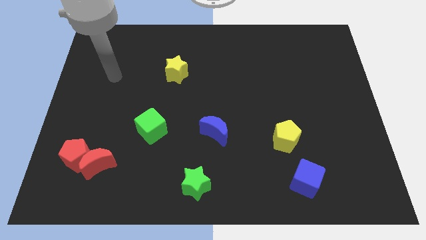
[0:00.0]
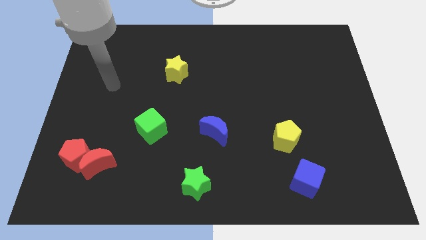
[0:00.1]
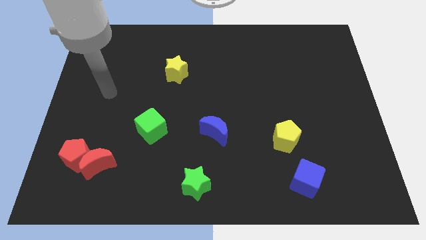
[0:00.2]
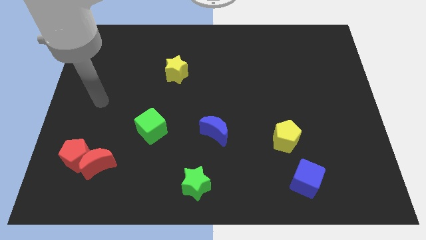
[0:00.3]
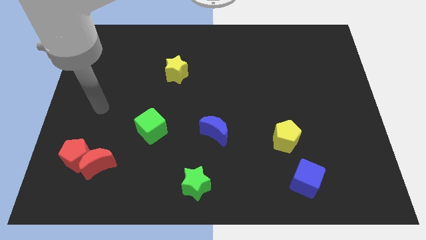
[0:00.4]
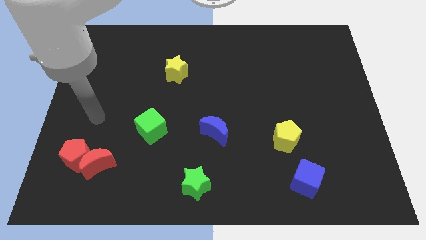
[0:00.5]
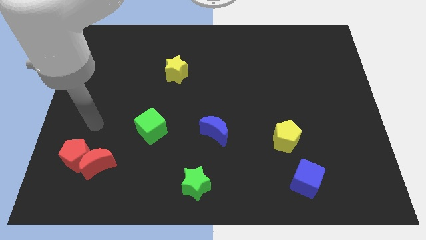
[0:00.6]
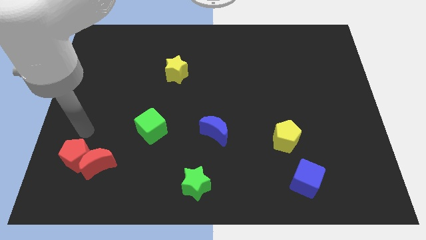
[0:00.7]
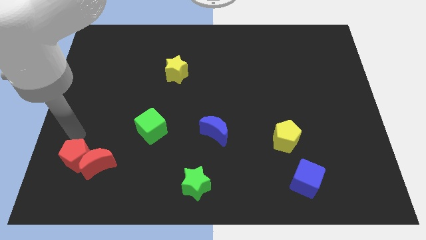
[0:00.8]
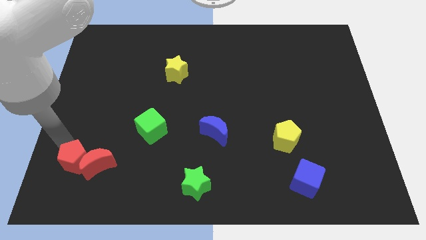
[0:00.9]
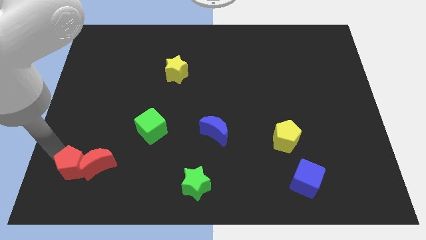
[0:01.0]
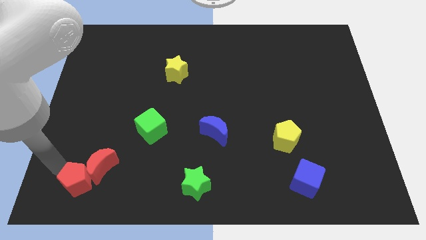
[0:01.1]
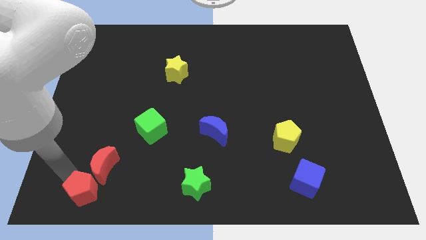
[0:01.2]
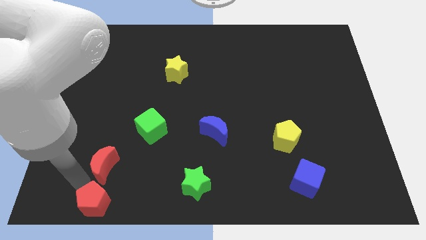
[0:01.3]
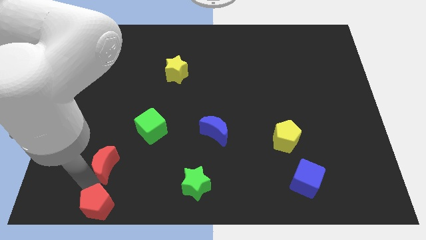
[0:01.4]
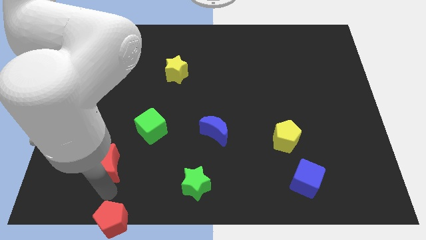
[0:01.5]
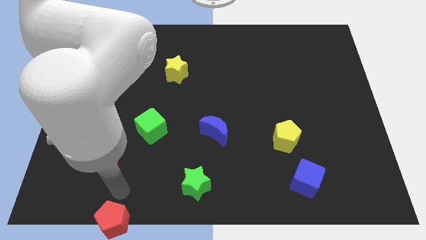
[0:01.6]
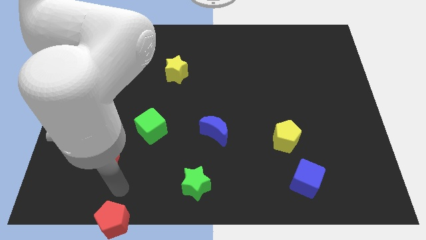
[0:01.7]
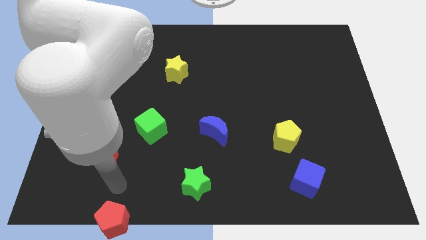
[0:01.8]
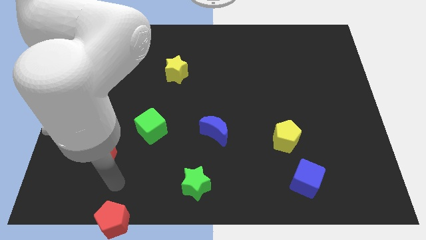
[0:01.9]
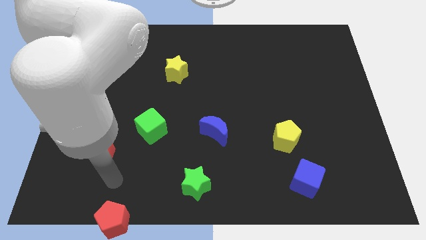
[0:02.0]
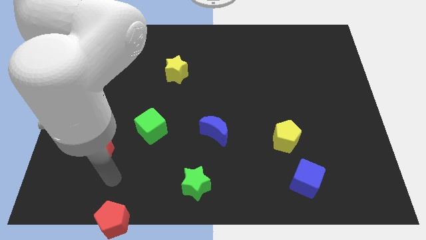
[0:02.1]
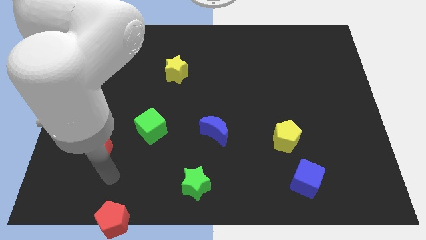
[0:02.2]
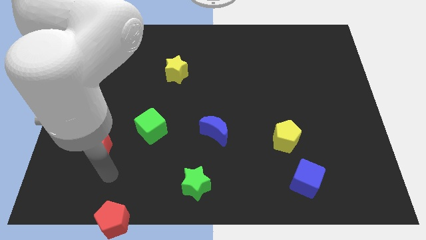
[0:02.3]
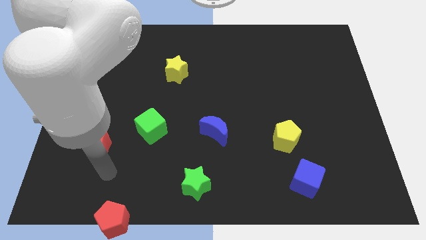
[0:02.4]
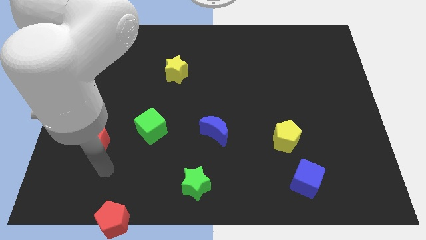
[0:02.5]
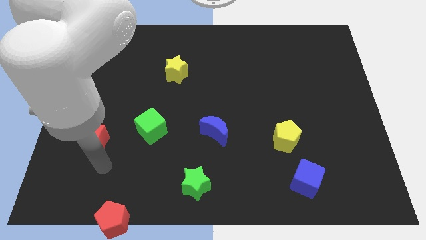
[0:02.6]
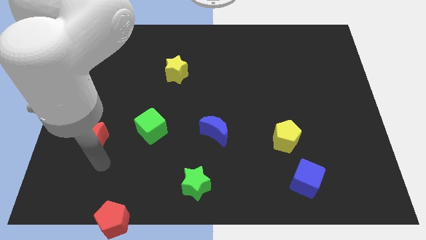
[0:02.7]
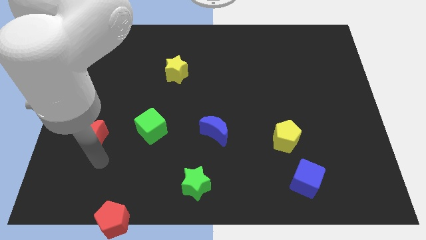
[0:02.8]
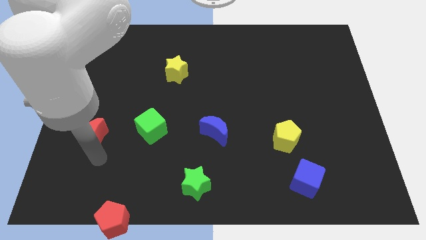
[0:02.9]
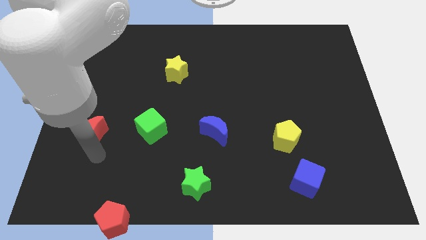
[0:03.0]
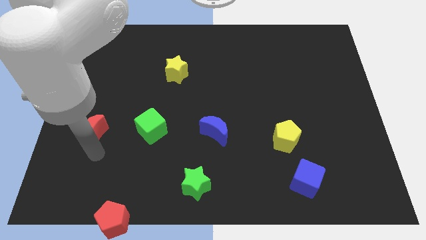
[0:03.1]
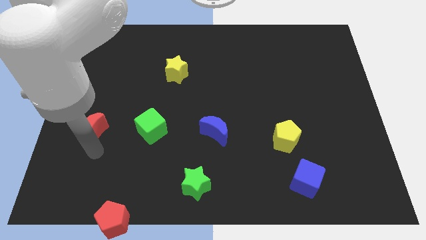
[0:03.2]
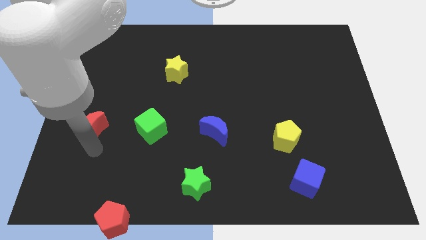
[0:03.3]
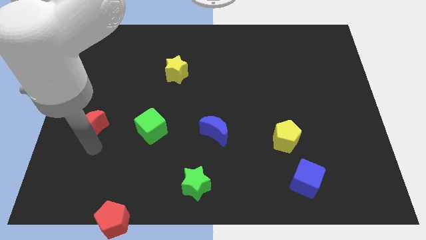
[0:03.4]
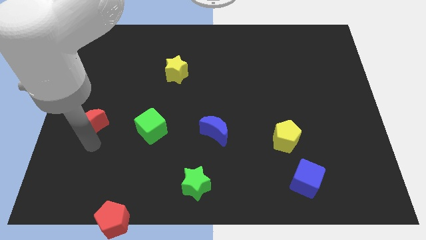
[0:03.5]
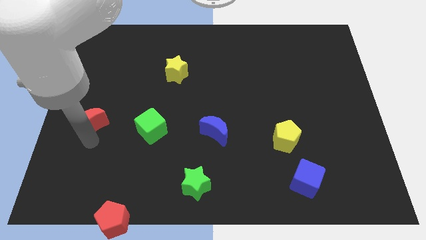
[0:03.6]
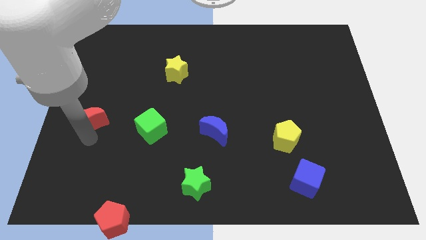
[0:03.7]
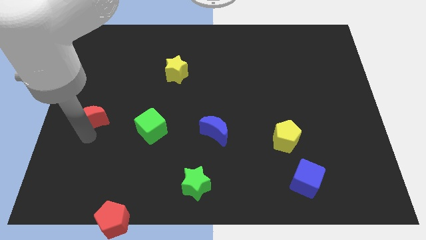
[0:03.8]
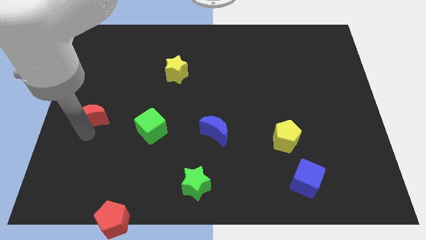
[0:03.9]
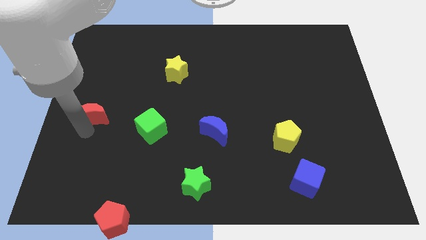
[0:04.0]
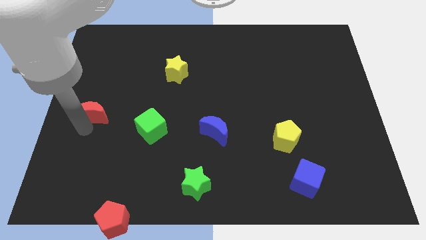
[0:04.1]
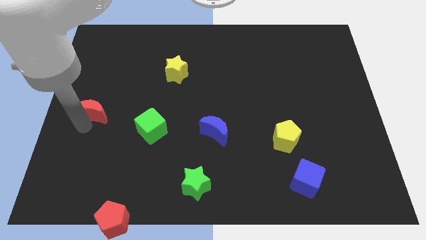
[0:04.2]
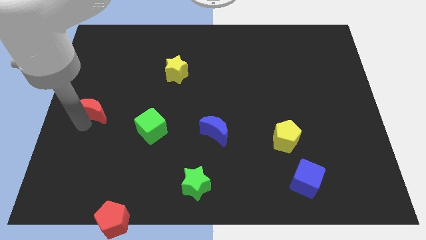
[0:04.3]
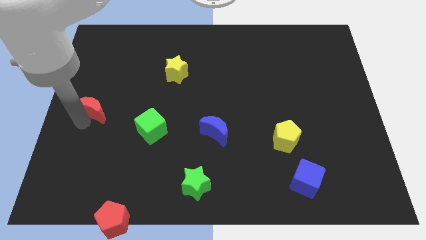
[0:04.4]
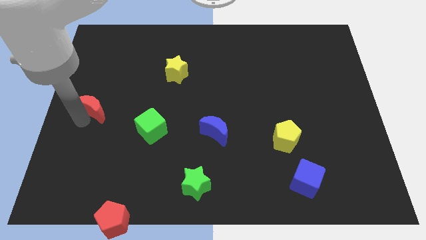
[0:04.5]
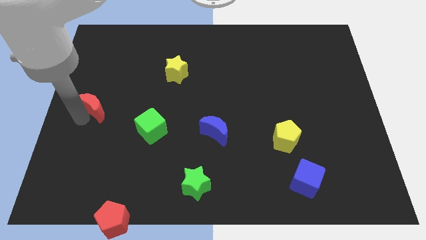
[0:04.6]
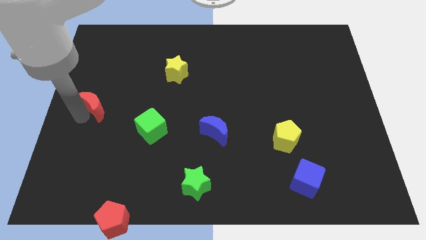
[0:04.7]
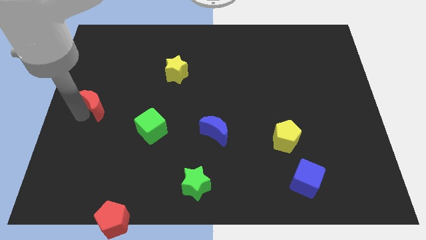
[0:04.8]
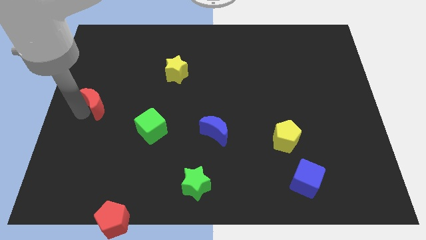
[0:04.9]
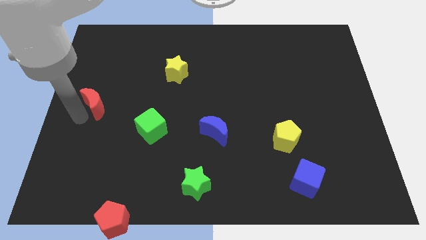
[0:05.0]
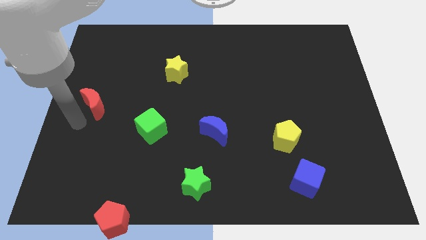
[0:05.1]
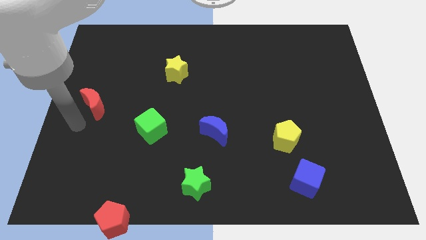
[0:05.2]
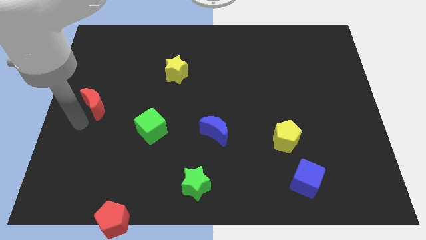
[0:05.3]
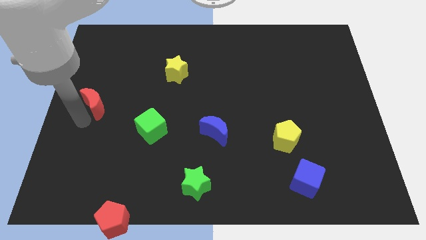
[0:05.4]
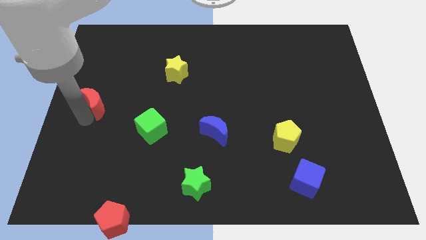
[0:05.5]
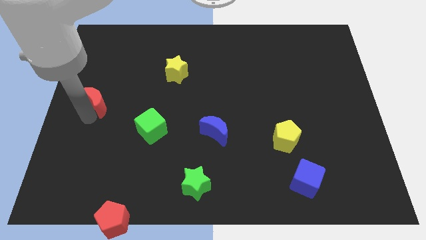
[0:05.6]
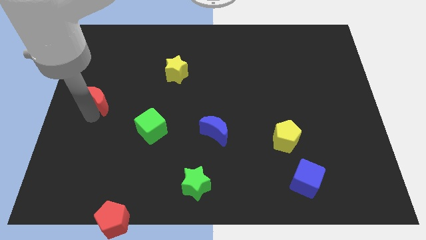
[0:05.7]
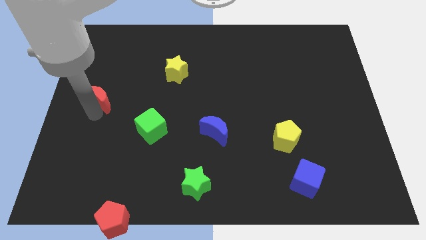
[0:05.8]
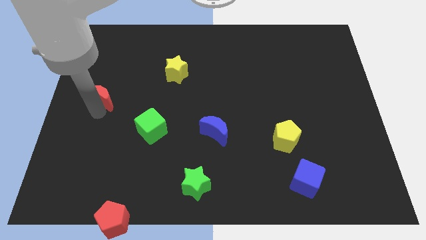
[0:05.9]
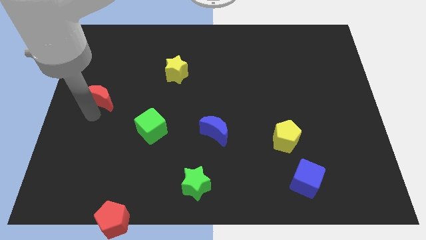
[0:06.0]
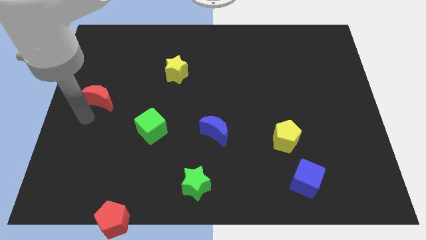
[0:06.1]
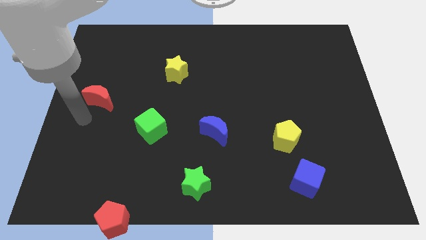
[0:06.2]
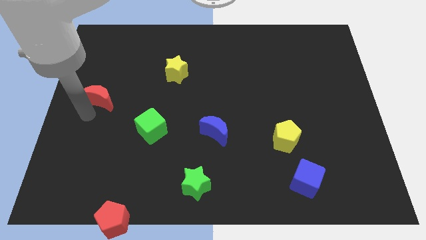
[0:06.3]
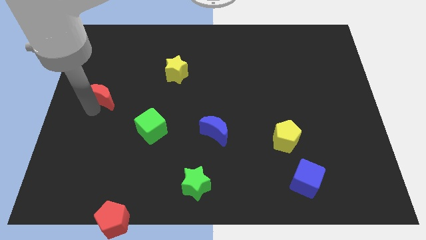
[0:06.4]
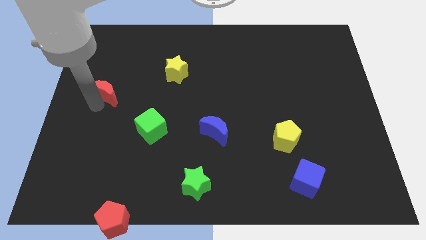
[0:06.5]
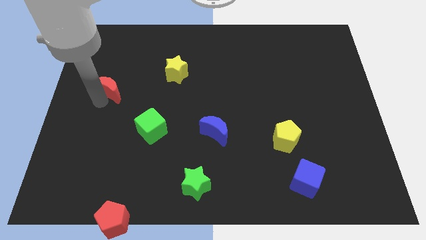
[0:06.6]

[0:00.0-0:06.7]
push the red moon upwards

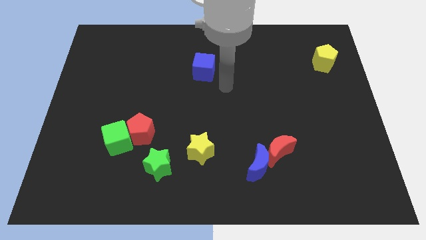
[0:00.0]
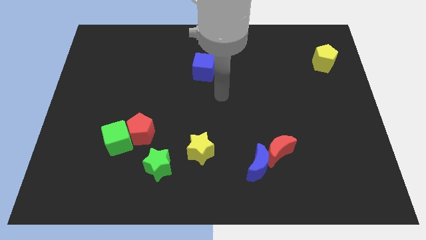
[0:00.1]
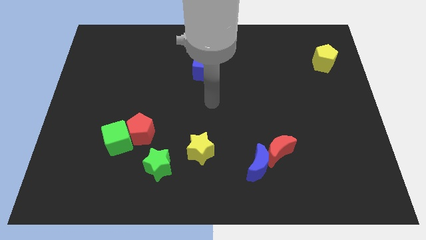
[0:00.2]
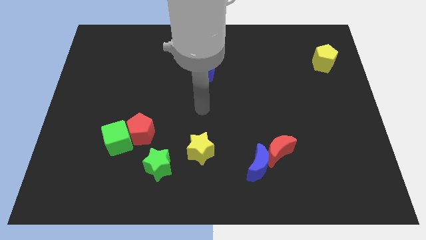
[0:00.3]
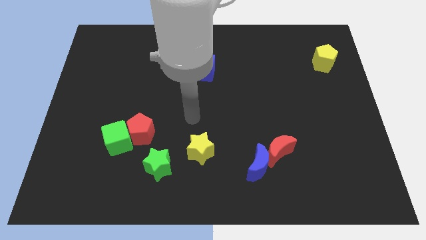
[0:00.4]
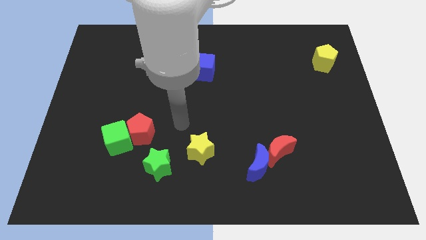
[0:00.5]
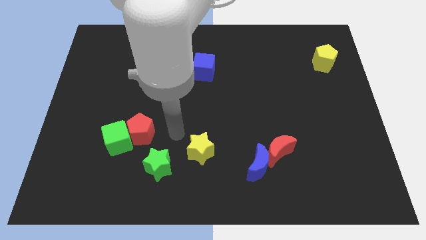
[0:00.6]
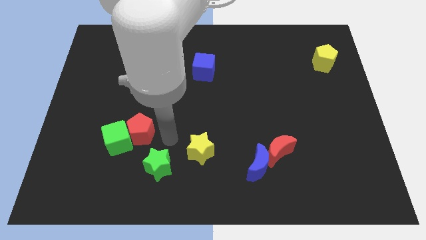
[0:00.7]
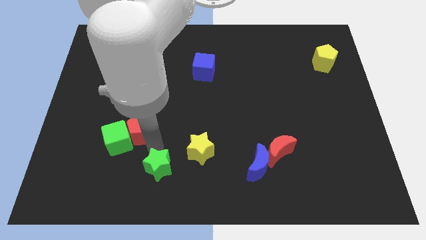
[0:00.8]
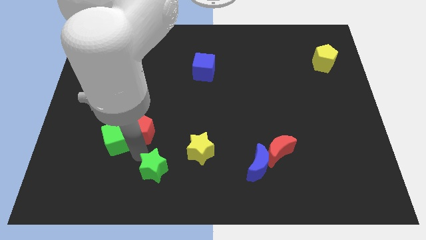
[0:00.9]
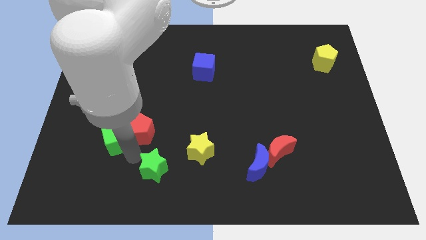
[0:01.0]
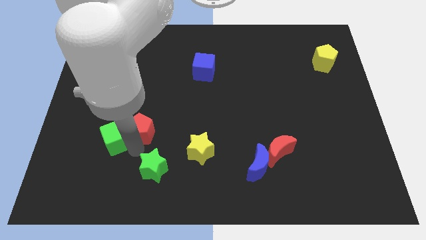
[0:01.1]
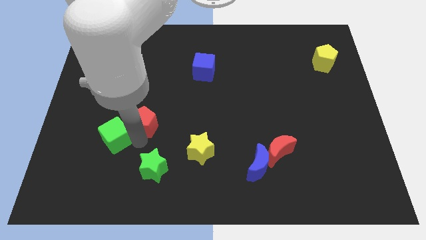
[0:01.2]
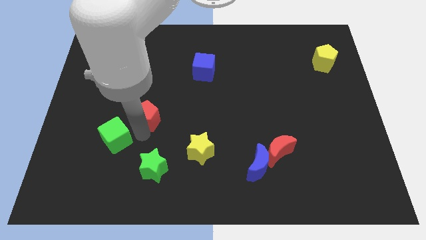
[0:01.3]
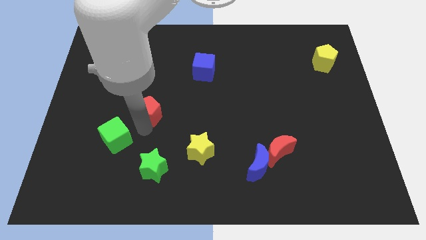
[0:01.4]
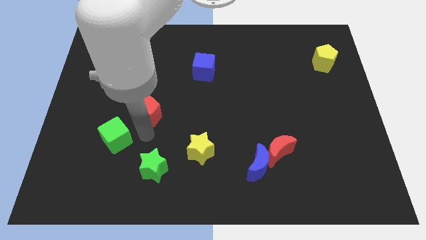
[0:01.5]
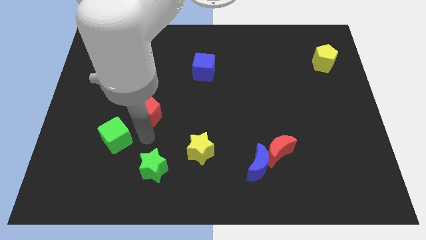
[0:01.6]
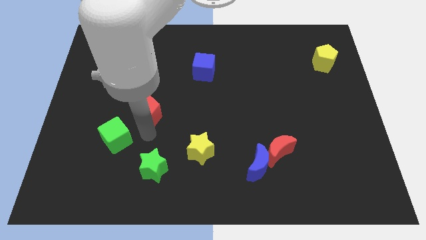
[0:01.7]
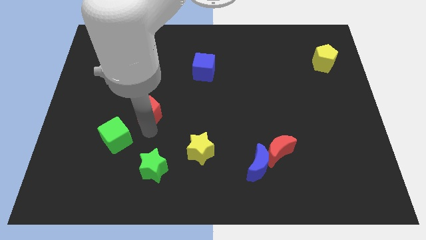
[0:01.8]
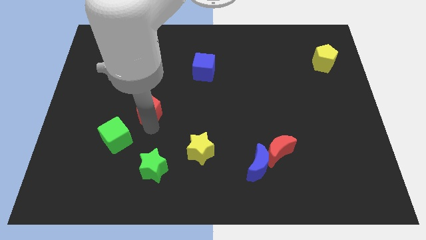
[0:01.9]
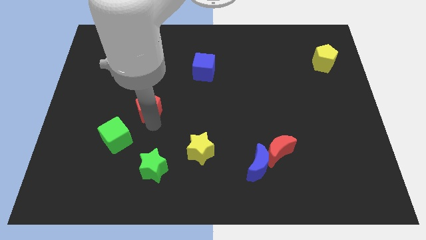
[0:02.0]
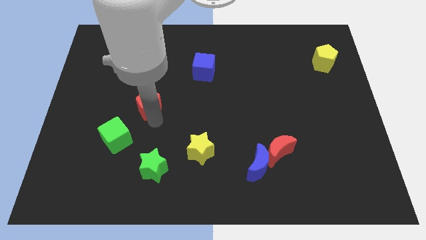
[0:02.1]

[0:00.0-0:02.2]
slide the red pentagon upwards slightly
